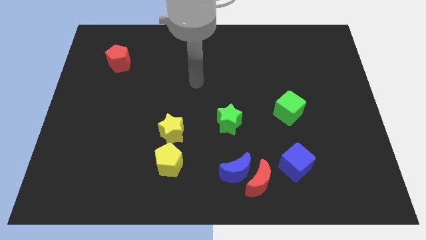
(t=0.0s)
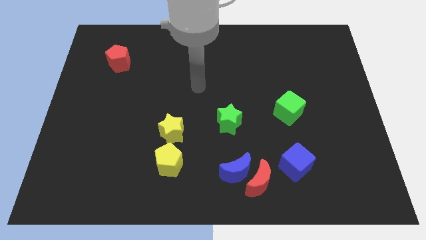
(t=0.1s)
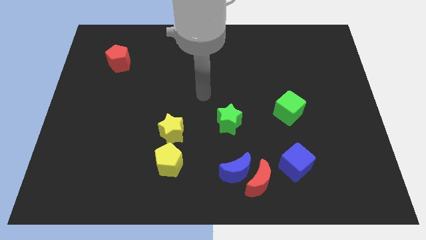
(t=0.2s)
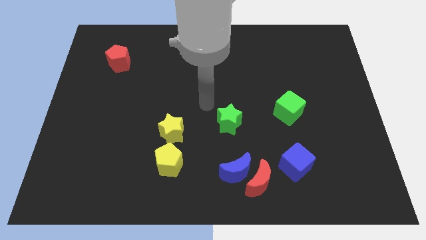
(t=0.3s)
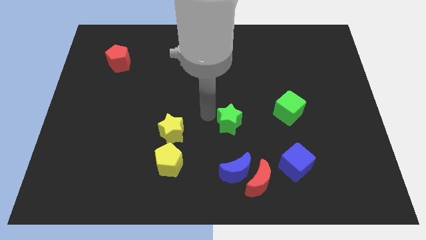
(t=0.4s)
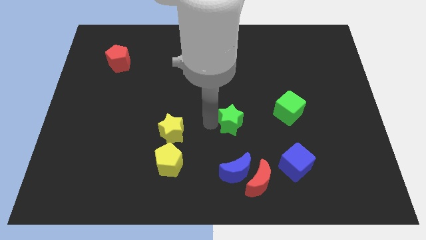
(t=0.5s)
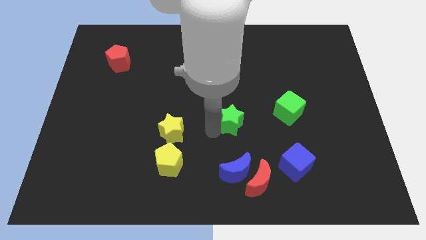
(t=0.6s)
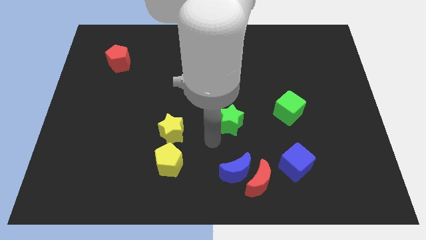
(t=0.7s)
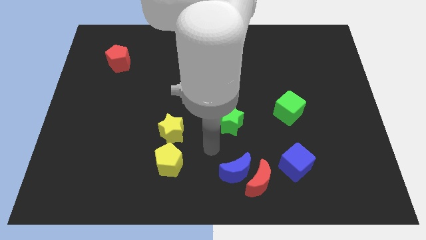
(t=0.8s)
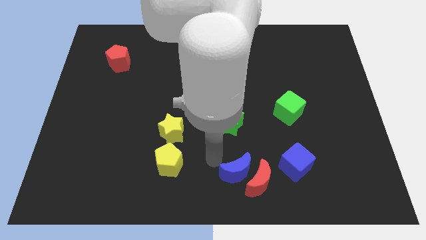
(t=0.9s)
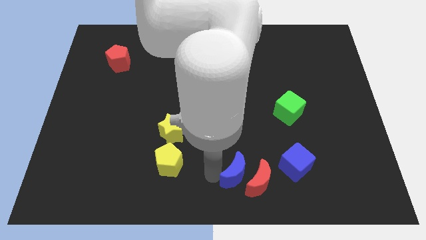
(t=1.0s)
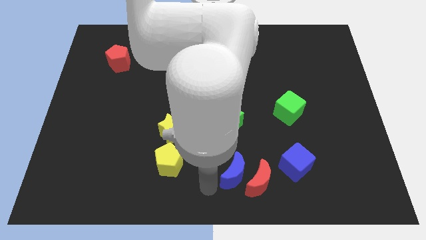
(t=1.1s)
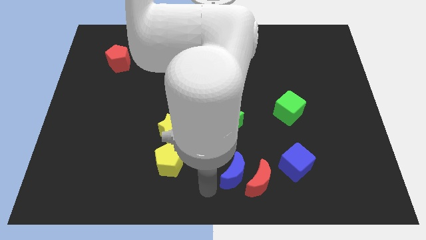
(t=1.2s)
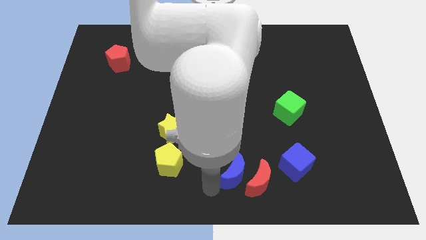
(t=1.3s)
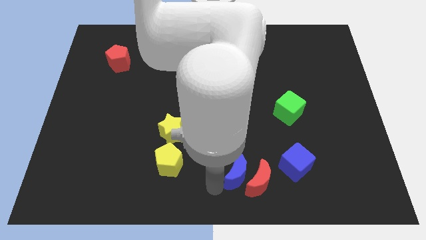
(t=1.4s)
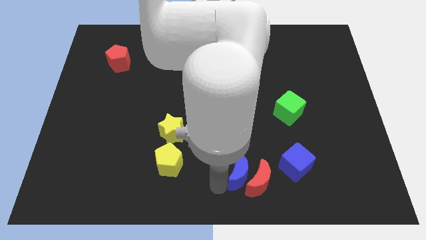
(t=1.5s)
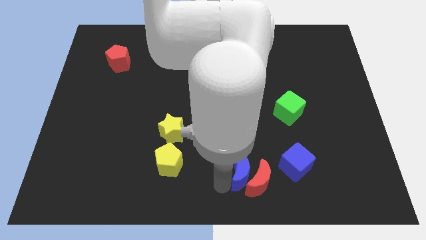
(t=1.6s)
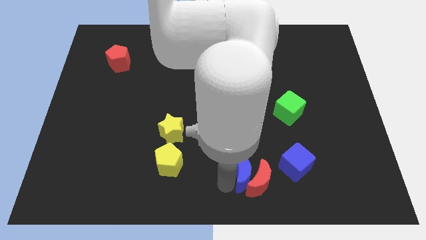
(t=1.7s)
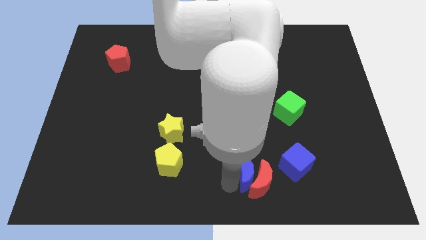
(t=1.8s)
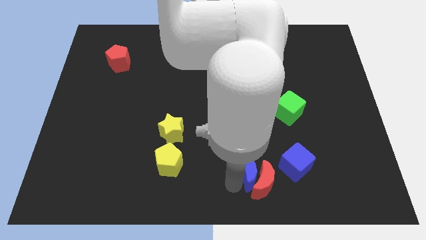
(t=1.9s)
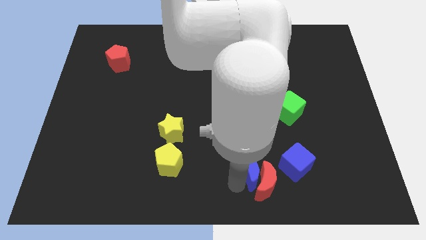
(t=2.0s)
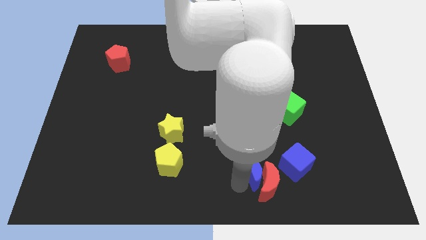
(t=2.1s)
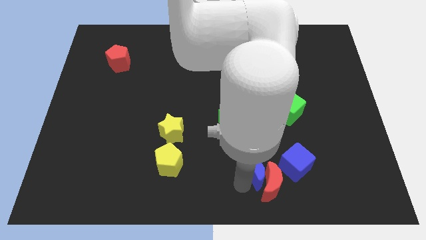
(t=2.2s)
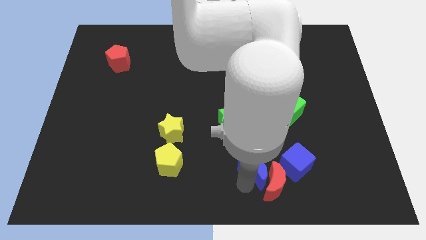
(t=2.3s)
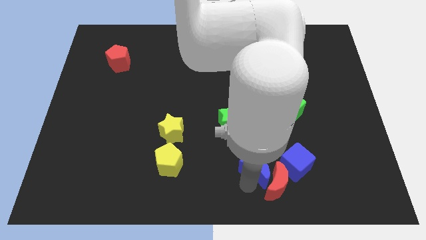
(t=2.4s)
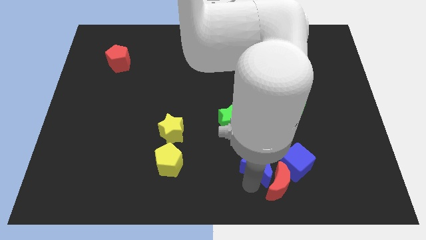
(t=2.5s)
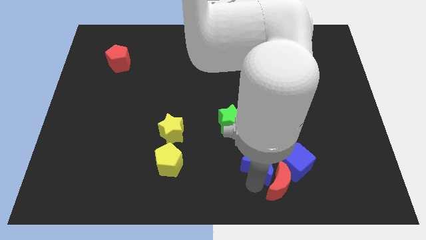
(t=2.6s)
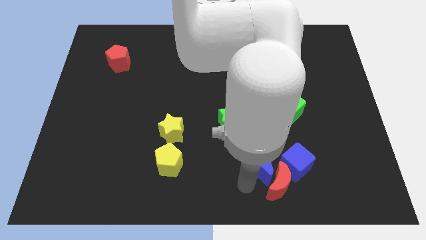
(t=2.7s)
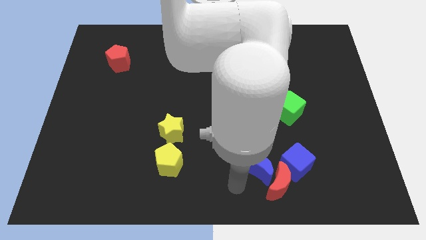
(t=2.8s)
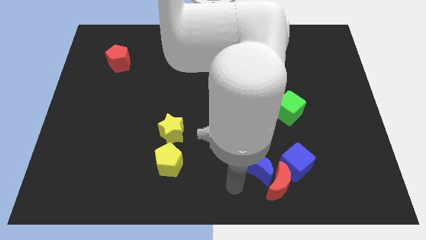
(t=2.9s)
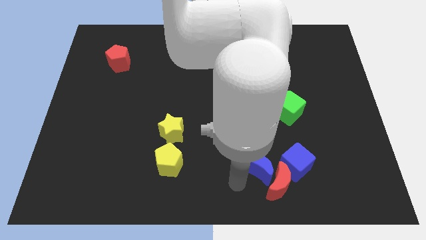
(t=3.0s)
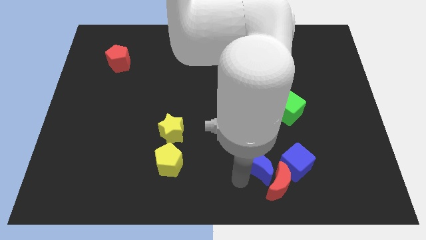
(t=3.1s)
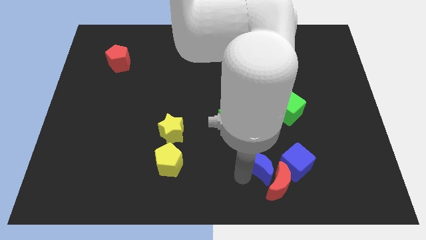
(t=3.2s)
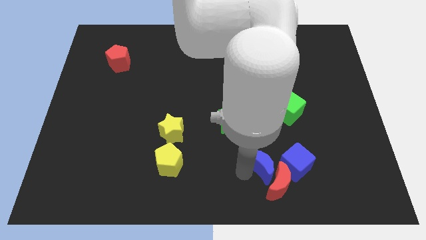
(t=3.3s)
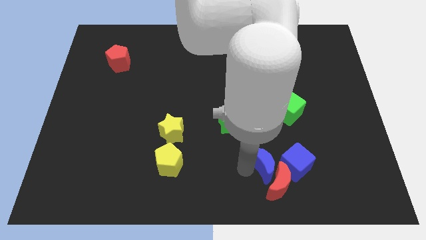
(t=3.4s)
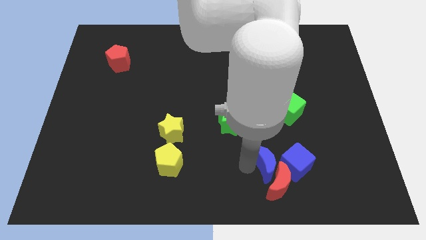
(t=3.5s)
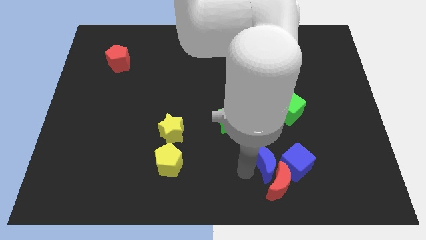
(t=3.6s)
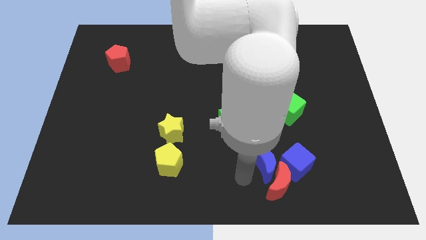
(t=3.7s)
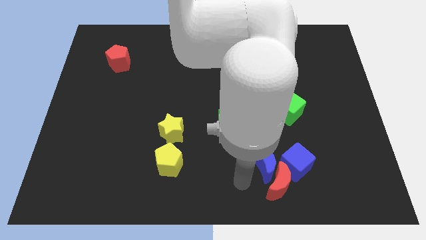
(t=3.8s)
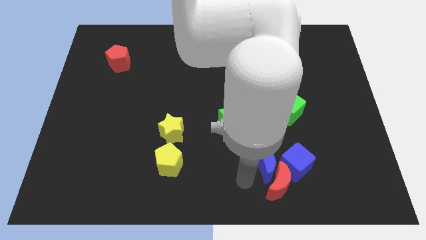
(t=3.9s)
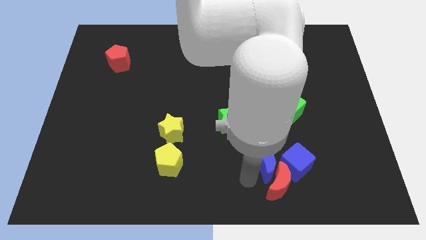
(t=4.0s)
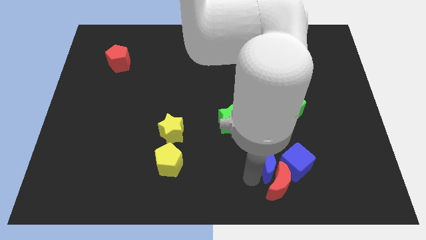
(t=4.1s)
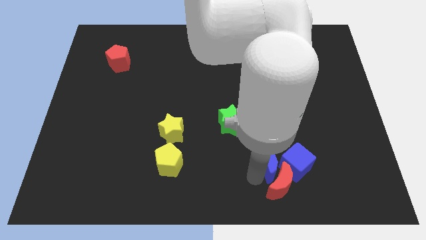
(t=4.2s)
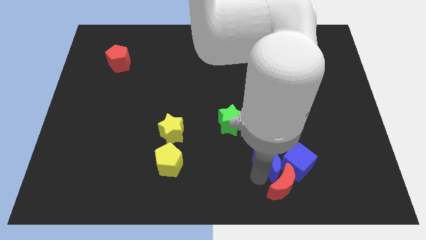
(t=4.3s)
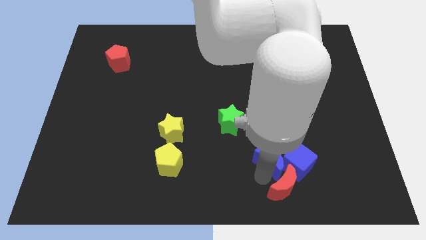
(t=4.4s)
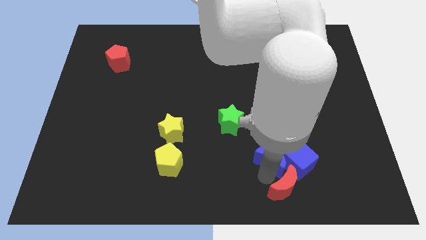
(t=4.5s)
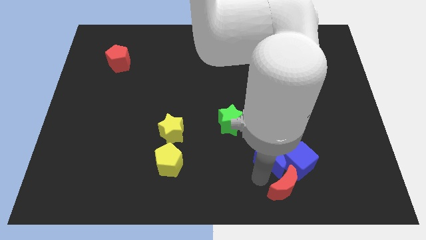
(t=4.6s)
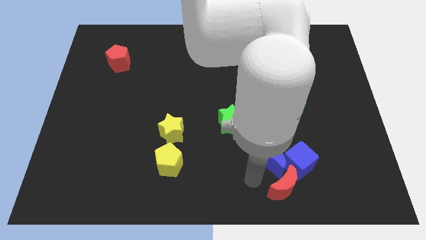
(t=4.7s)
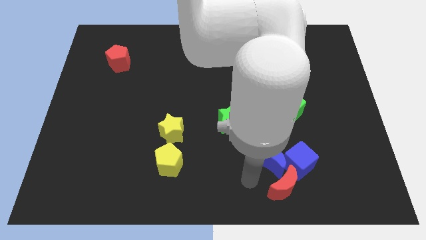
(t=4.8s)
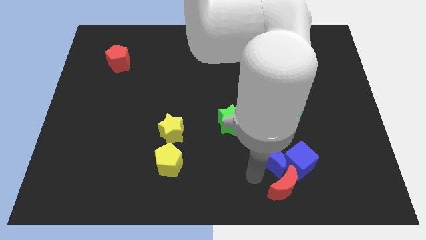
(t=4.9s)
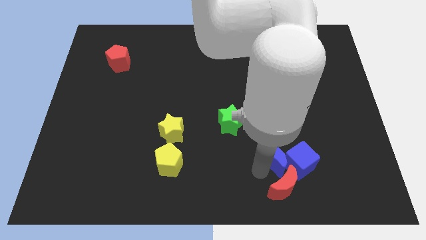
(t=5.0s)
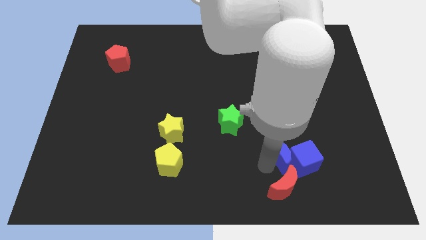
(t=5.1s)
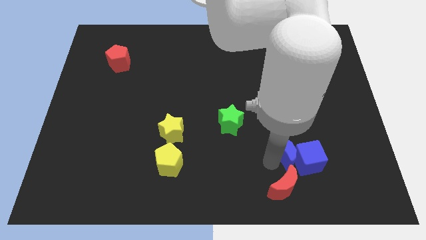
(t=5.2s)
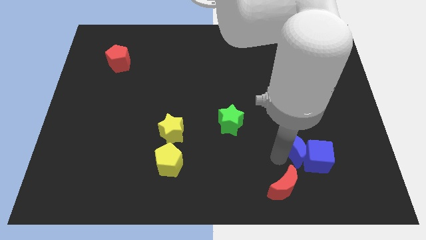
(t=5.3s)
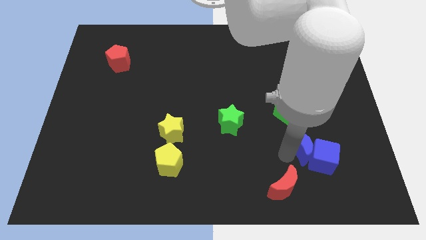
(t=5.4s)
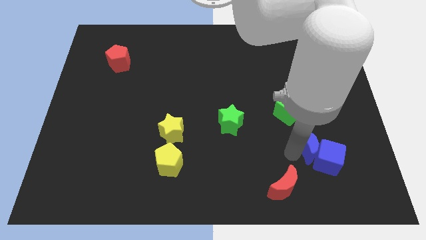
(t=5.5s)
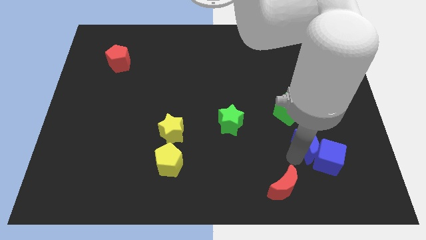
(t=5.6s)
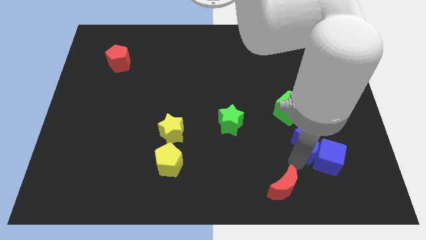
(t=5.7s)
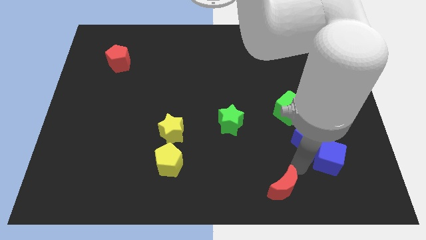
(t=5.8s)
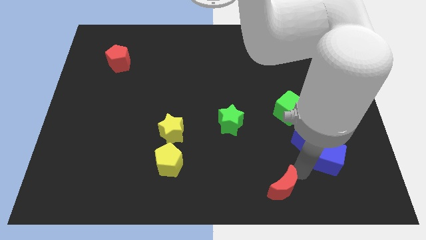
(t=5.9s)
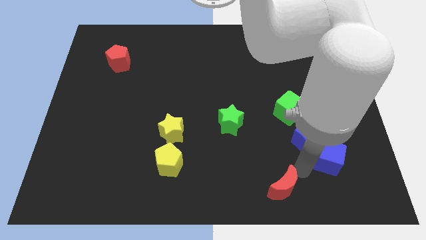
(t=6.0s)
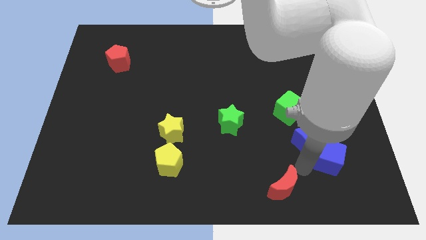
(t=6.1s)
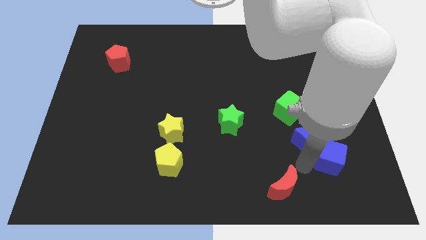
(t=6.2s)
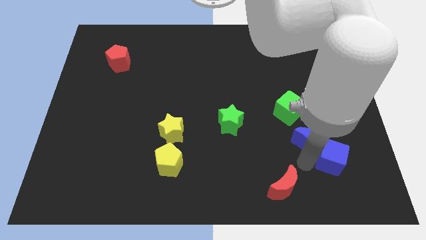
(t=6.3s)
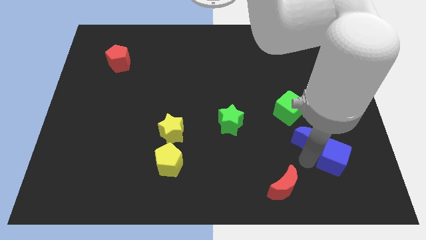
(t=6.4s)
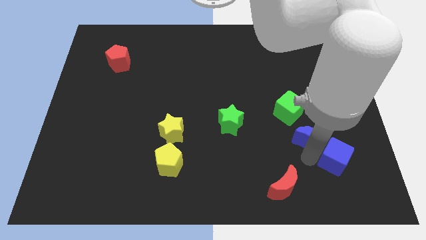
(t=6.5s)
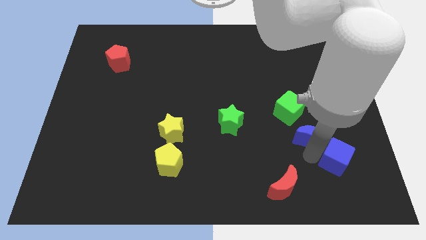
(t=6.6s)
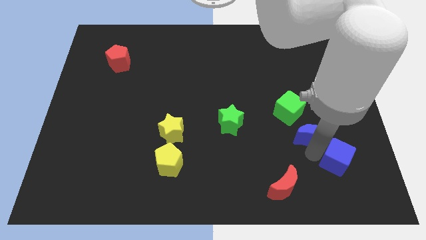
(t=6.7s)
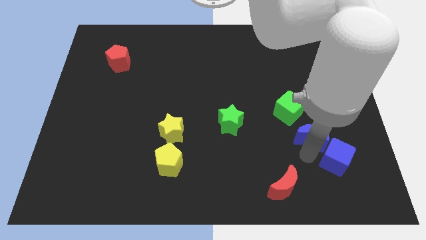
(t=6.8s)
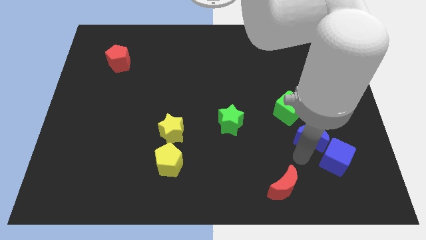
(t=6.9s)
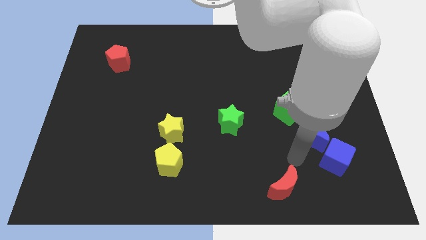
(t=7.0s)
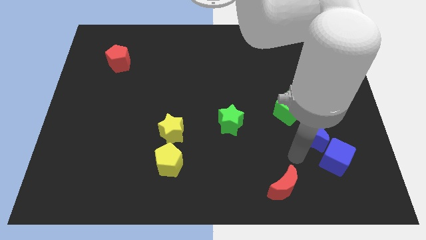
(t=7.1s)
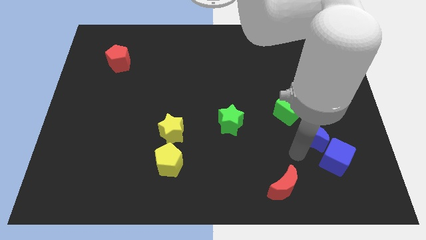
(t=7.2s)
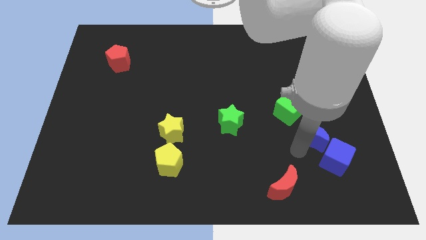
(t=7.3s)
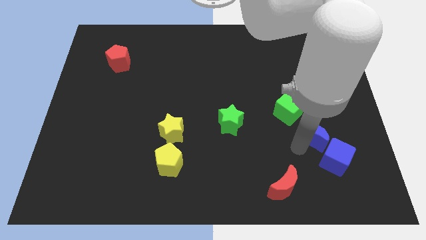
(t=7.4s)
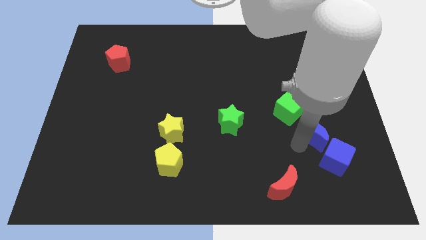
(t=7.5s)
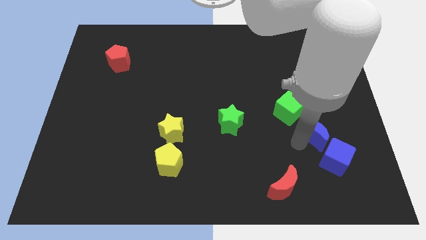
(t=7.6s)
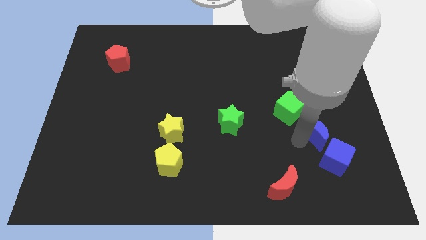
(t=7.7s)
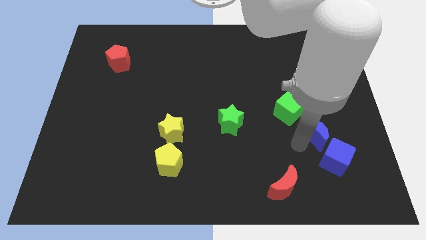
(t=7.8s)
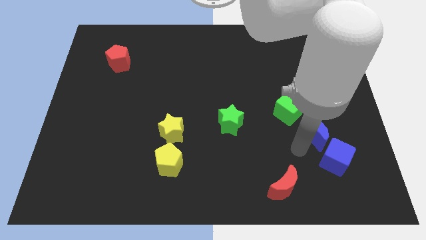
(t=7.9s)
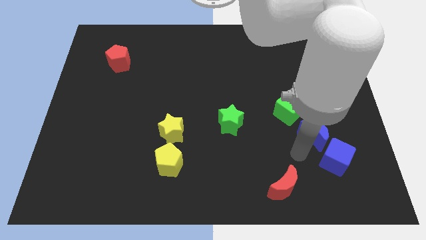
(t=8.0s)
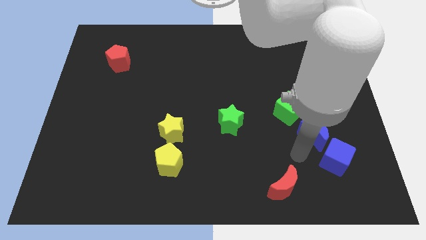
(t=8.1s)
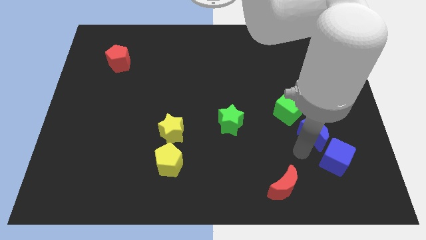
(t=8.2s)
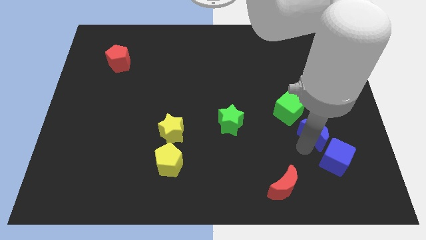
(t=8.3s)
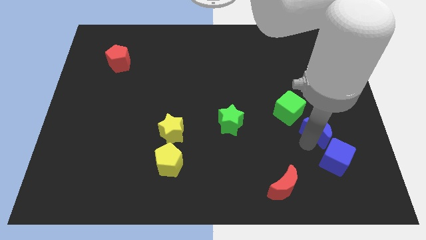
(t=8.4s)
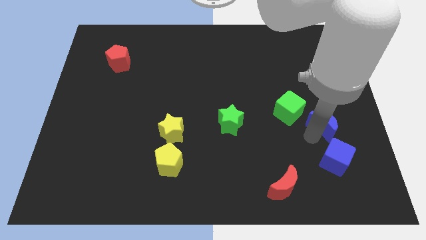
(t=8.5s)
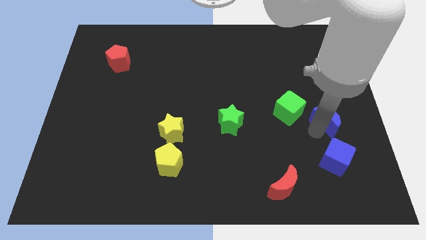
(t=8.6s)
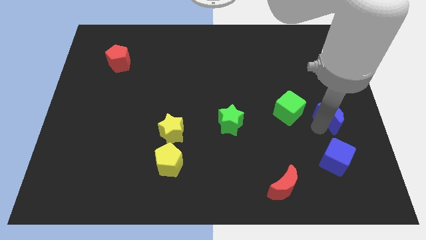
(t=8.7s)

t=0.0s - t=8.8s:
slide the blue moon to the center right
